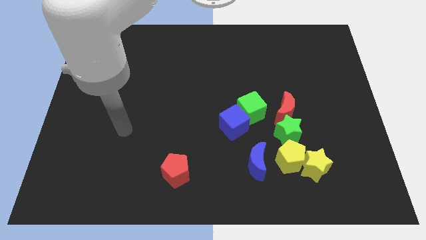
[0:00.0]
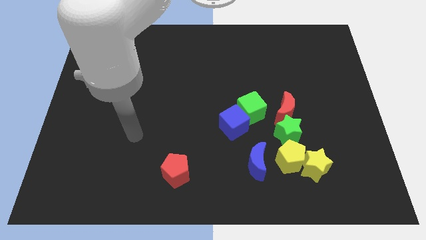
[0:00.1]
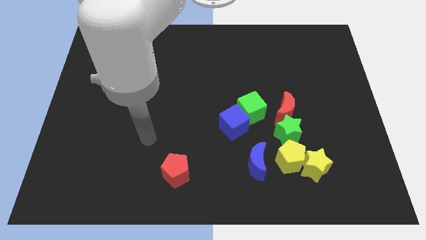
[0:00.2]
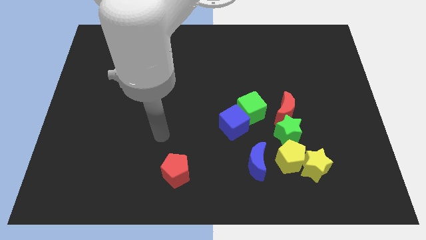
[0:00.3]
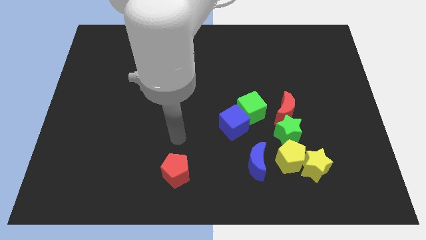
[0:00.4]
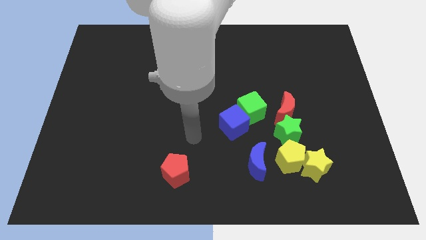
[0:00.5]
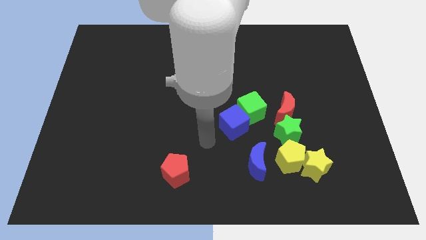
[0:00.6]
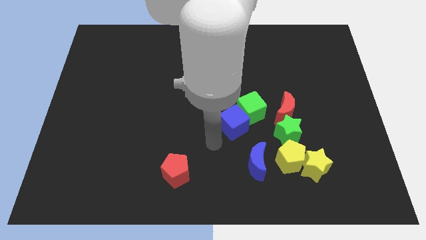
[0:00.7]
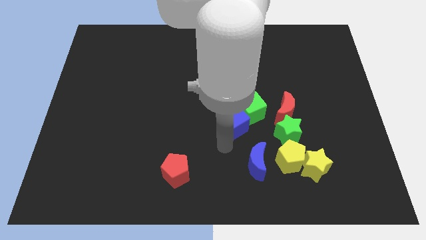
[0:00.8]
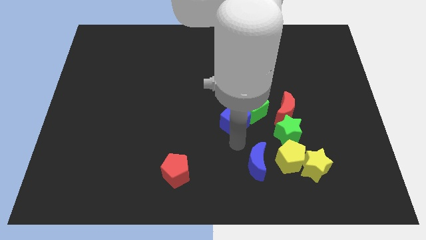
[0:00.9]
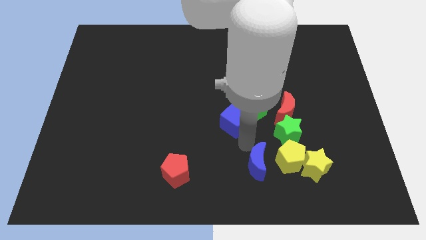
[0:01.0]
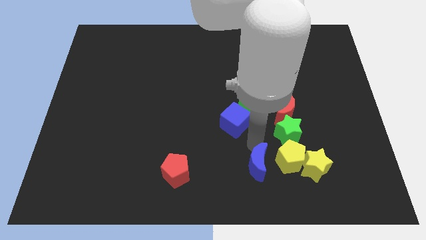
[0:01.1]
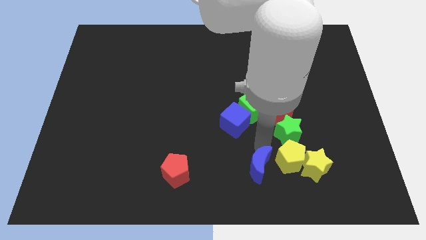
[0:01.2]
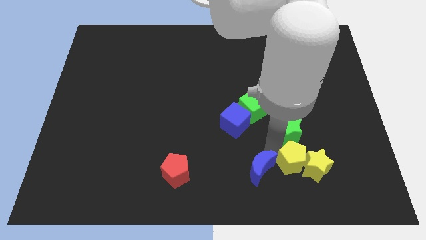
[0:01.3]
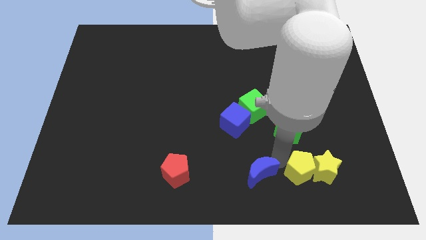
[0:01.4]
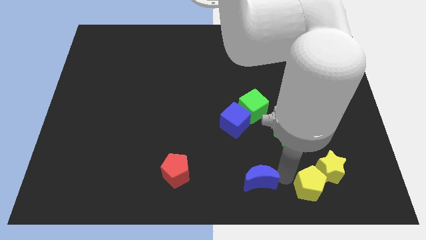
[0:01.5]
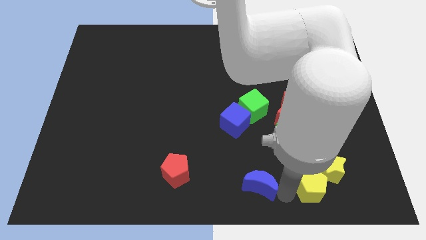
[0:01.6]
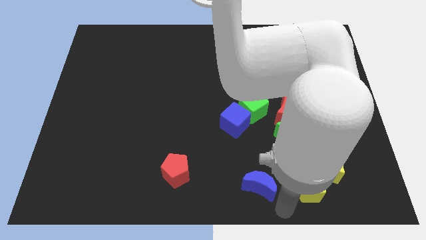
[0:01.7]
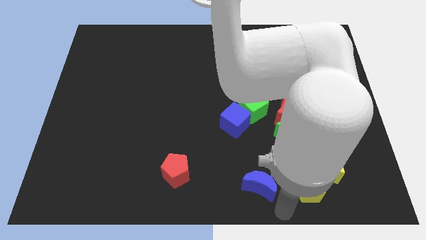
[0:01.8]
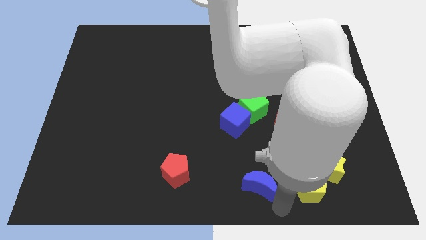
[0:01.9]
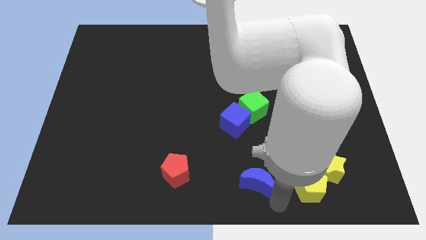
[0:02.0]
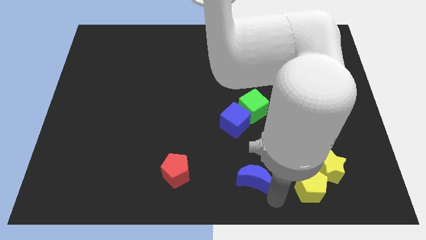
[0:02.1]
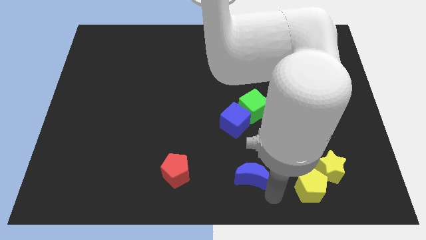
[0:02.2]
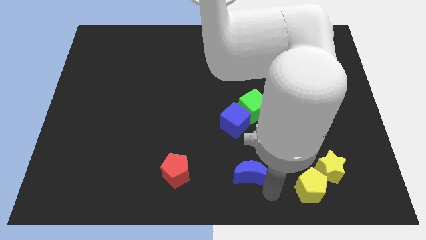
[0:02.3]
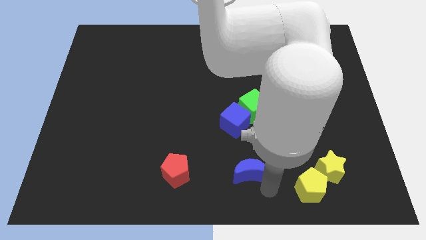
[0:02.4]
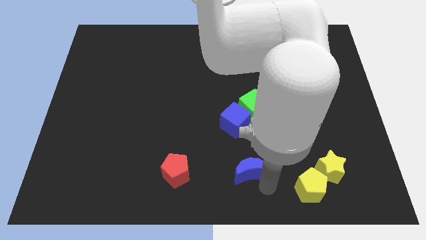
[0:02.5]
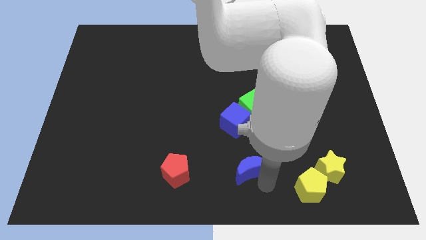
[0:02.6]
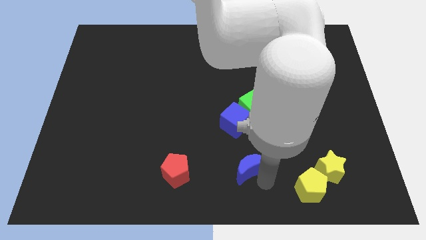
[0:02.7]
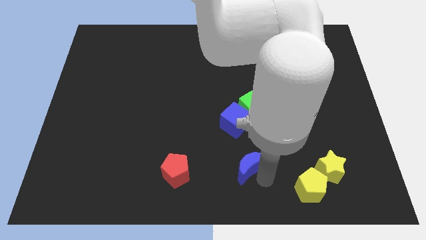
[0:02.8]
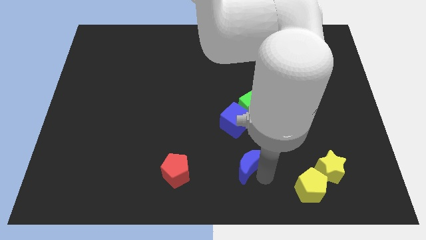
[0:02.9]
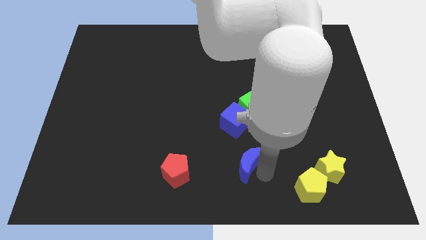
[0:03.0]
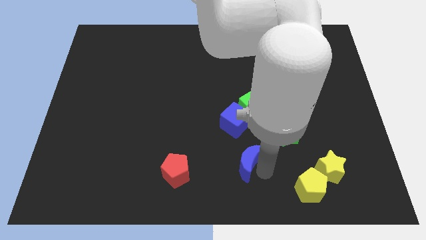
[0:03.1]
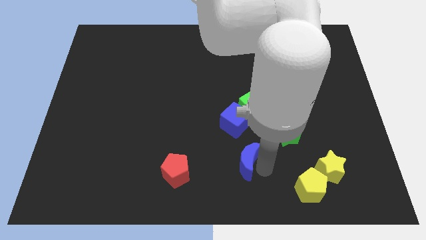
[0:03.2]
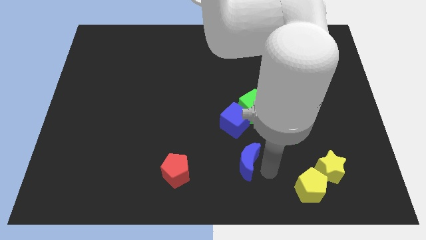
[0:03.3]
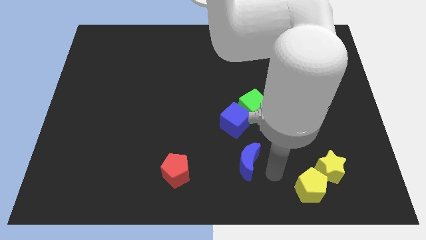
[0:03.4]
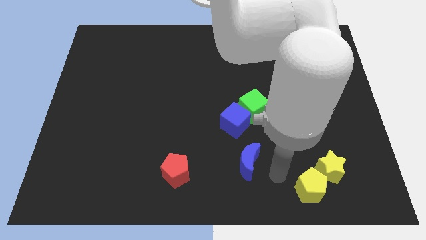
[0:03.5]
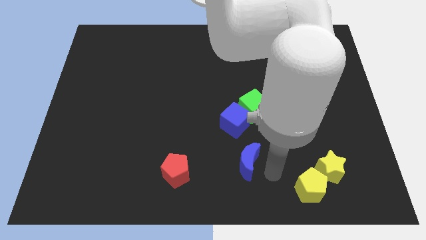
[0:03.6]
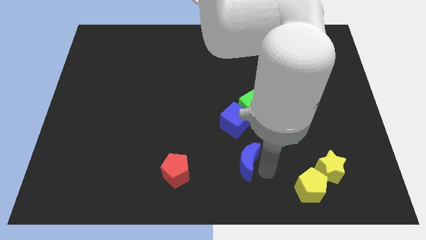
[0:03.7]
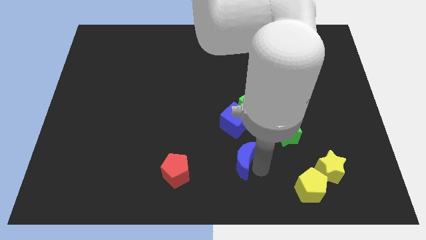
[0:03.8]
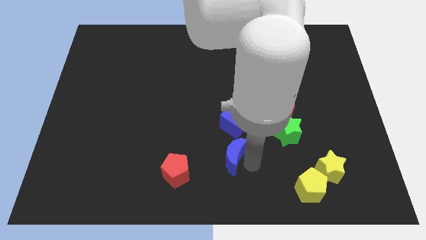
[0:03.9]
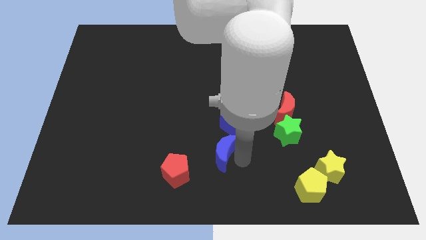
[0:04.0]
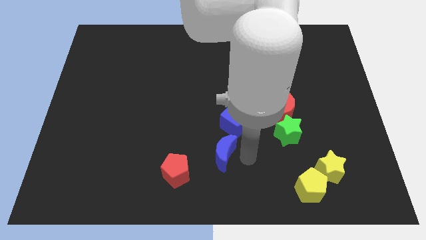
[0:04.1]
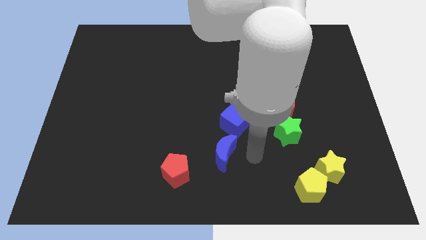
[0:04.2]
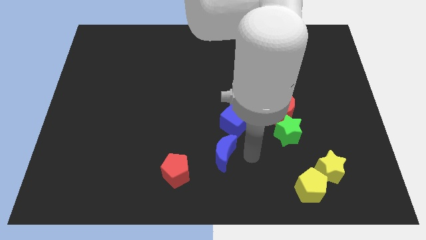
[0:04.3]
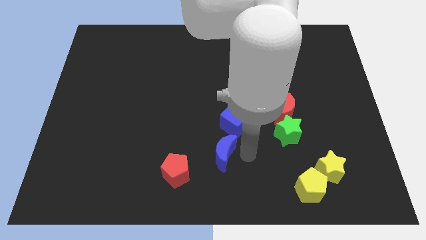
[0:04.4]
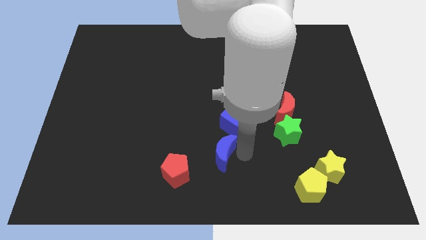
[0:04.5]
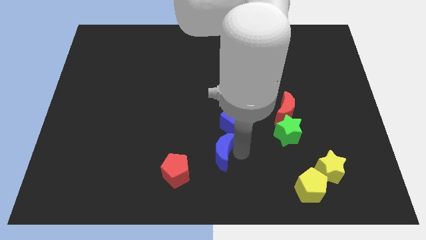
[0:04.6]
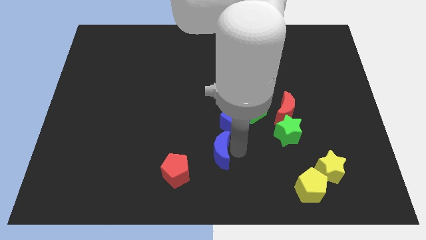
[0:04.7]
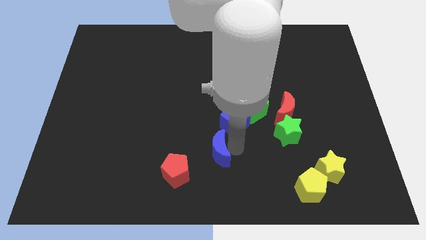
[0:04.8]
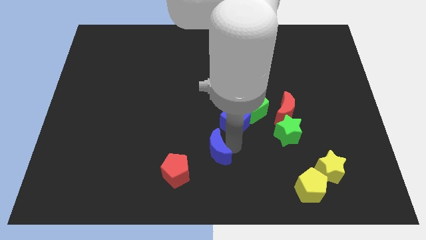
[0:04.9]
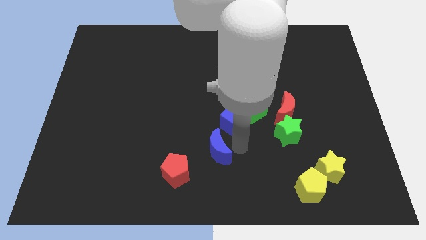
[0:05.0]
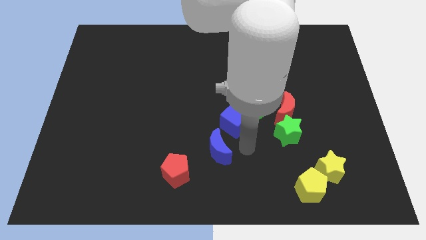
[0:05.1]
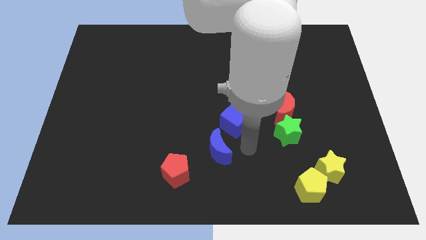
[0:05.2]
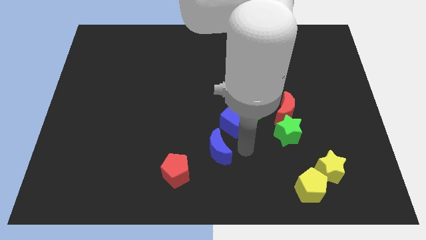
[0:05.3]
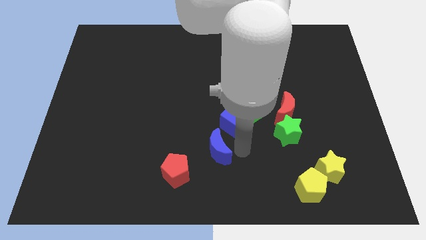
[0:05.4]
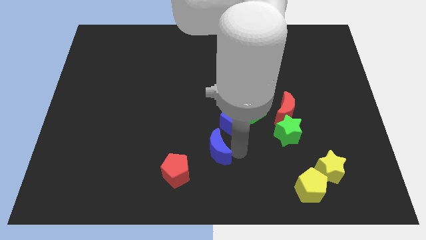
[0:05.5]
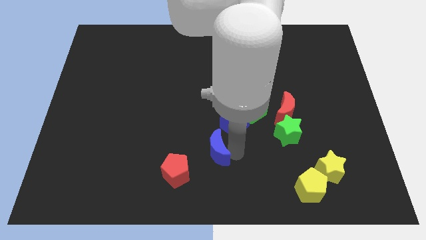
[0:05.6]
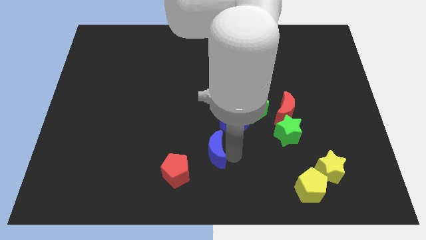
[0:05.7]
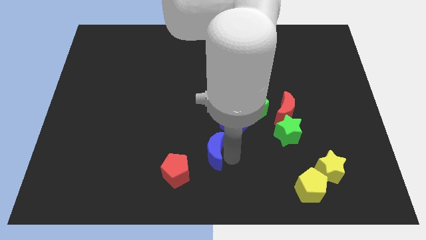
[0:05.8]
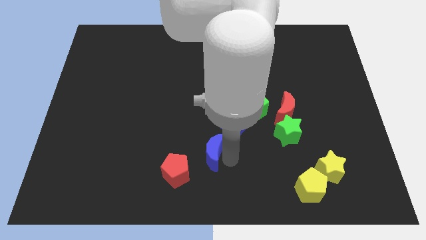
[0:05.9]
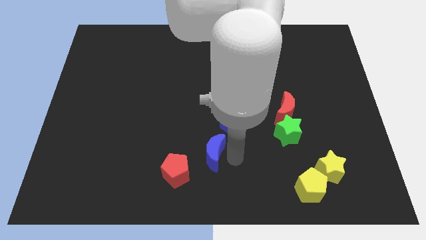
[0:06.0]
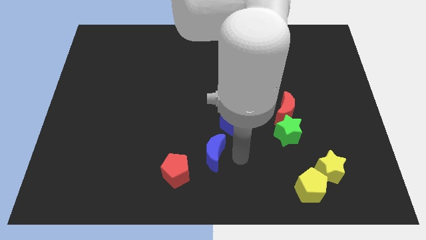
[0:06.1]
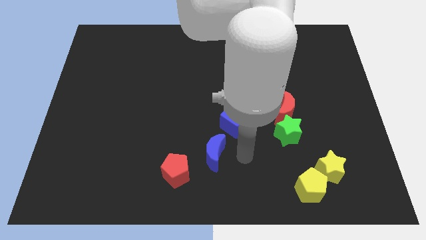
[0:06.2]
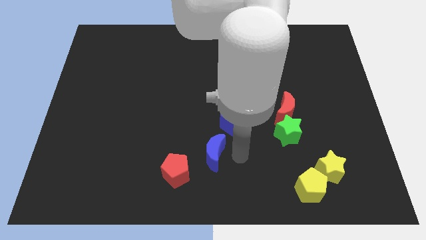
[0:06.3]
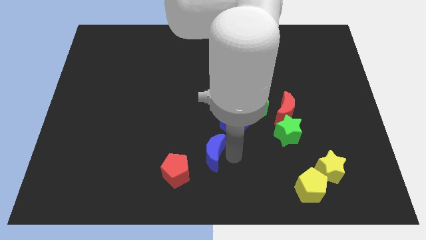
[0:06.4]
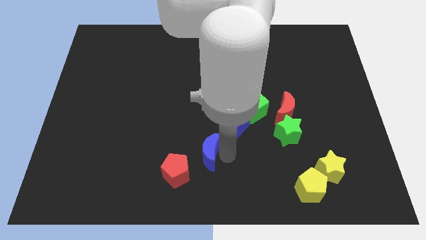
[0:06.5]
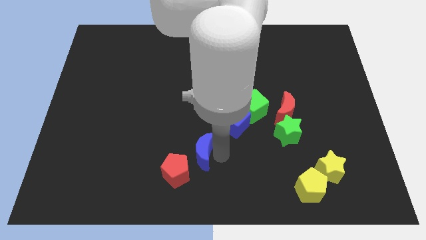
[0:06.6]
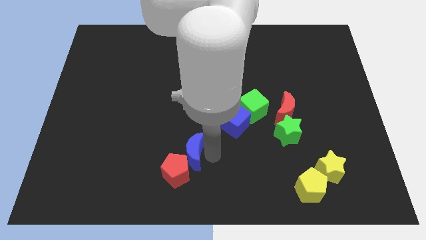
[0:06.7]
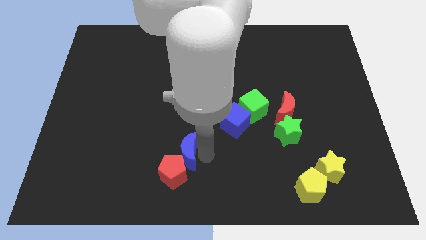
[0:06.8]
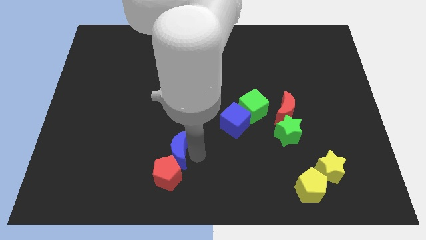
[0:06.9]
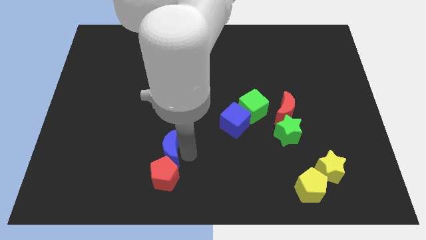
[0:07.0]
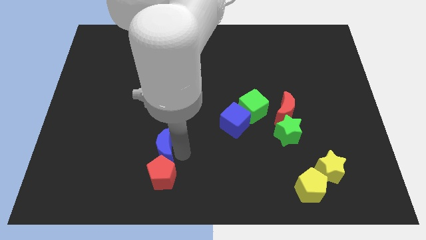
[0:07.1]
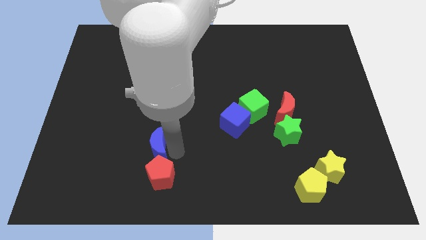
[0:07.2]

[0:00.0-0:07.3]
push the blue moon to the left

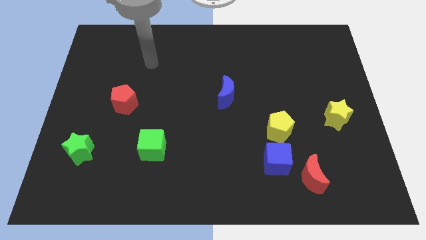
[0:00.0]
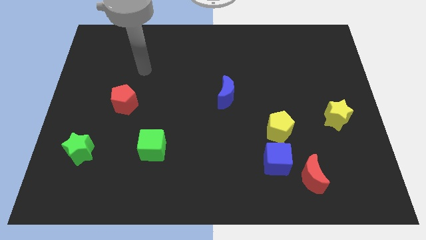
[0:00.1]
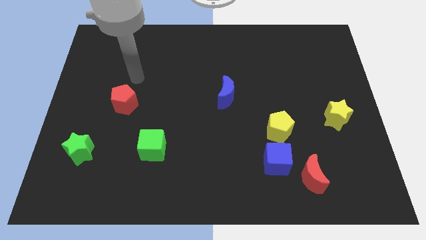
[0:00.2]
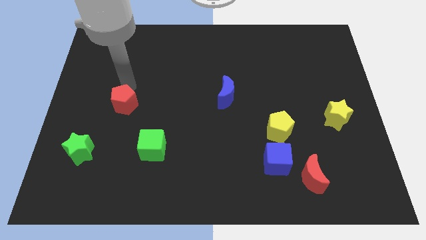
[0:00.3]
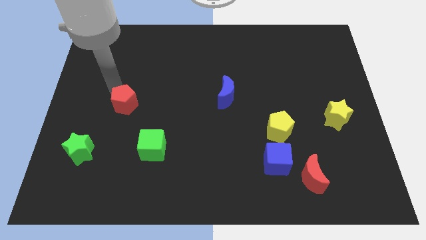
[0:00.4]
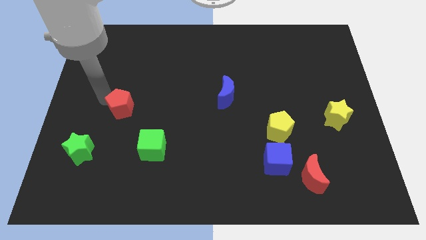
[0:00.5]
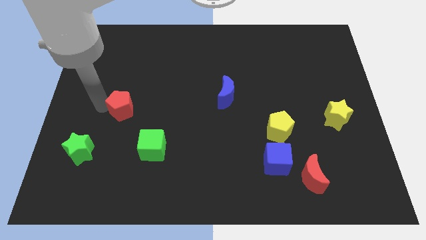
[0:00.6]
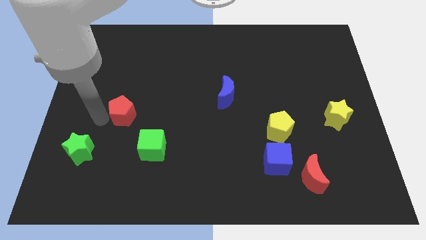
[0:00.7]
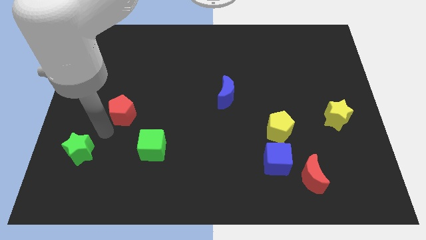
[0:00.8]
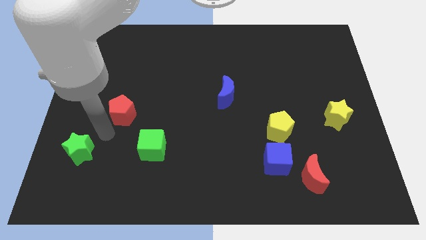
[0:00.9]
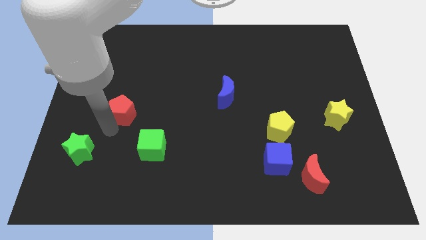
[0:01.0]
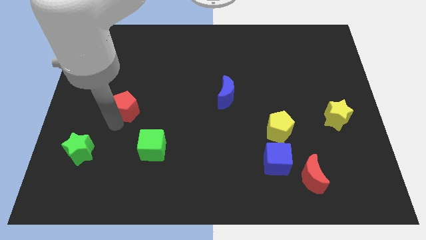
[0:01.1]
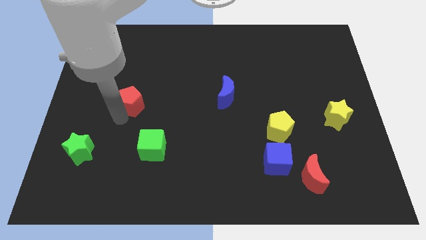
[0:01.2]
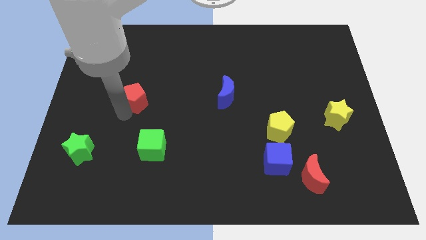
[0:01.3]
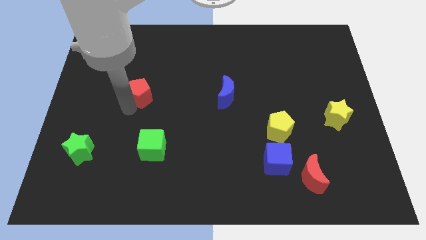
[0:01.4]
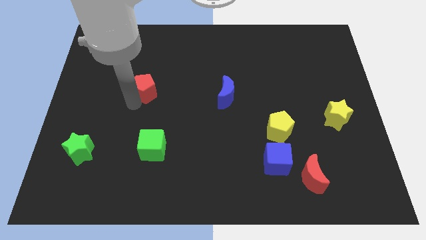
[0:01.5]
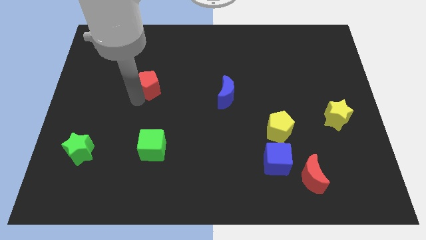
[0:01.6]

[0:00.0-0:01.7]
move the red pentagon a little diagonally upwards and right
